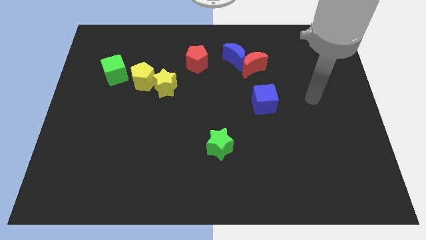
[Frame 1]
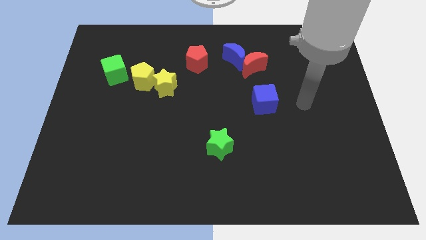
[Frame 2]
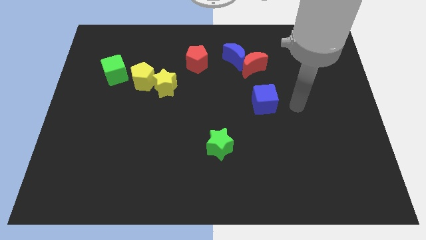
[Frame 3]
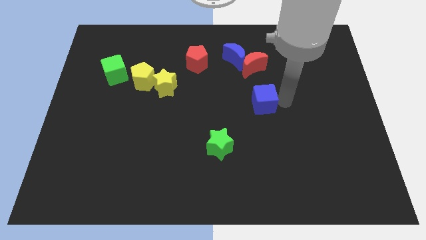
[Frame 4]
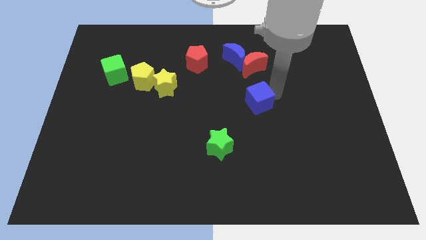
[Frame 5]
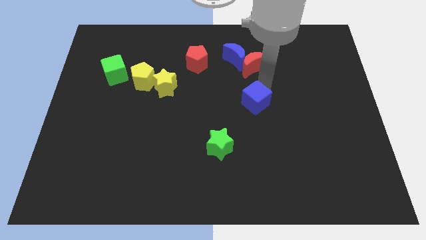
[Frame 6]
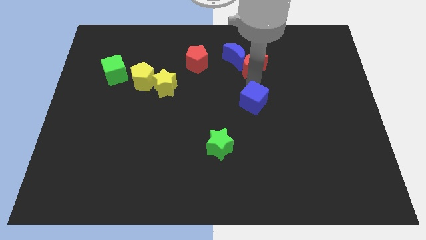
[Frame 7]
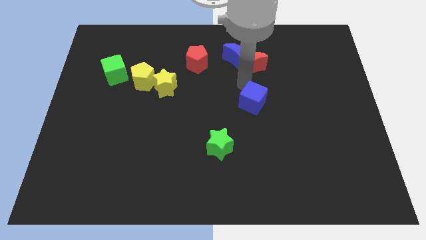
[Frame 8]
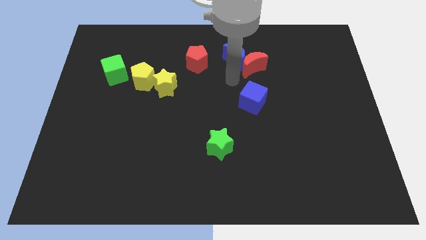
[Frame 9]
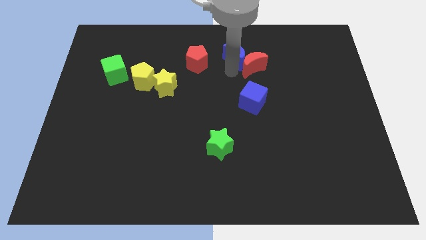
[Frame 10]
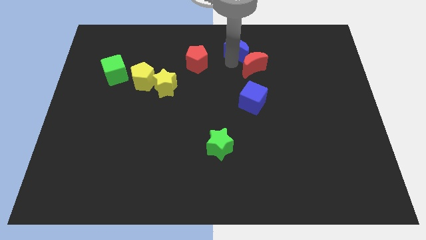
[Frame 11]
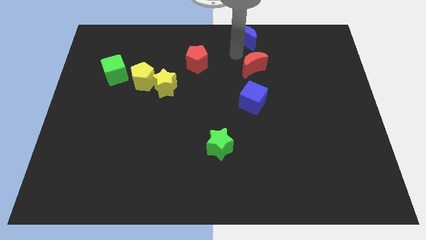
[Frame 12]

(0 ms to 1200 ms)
move the red moon away from the blue moon

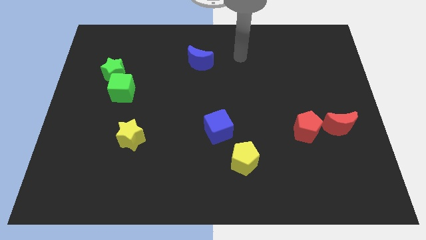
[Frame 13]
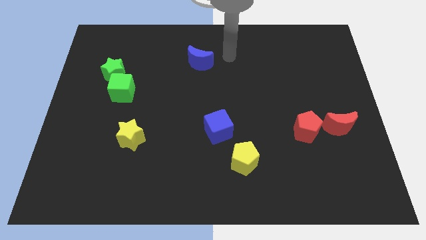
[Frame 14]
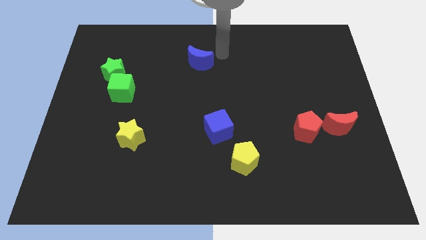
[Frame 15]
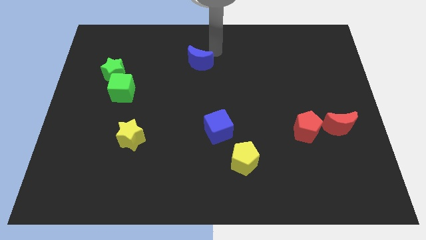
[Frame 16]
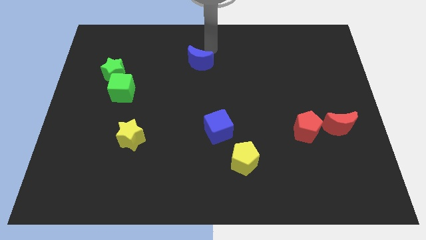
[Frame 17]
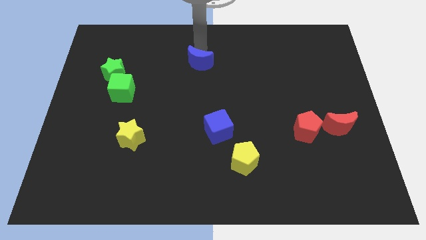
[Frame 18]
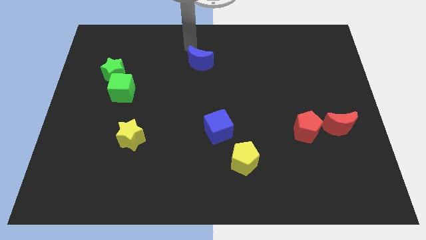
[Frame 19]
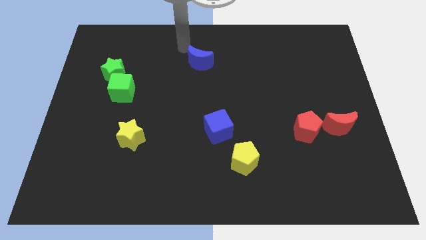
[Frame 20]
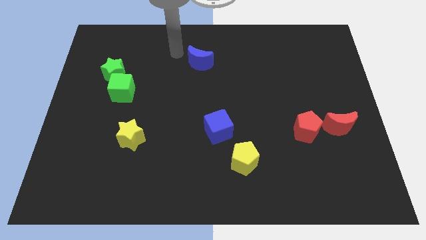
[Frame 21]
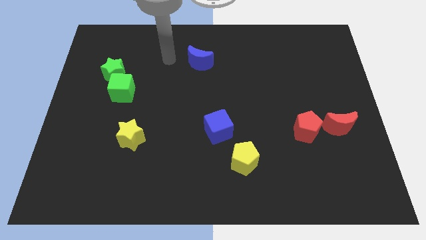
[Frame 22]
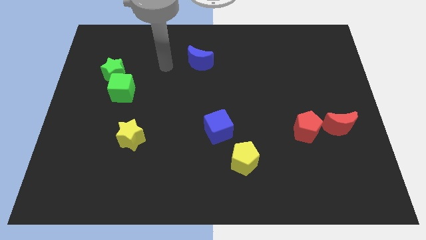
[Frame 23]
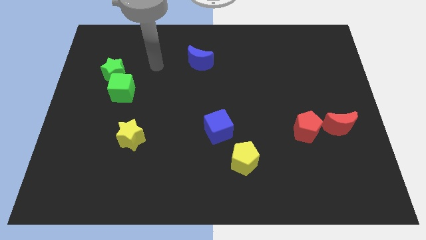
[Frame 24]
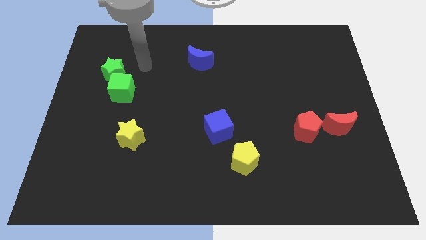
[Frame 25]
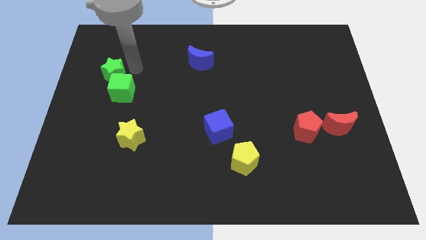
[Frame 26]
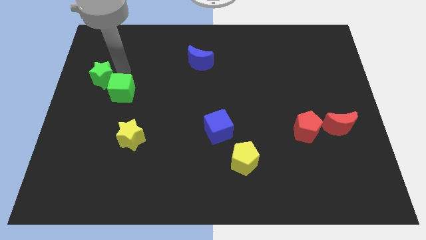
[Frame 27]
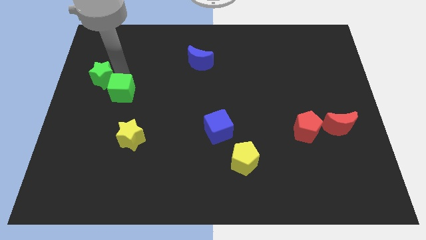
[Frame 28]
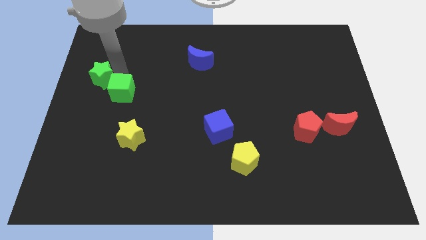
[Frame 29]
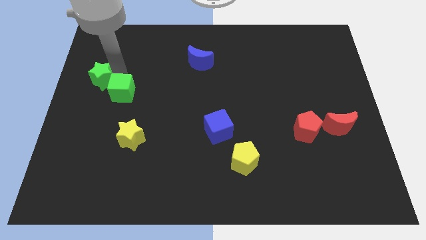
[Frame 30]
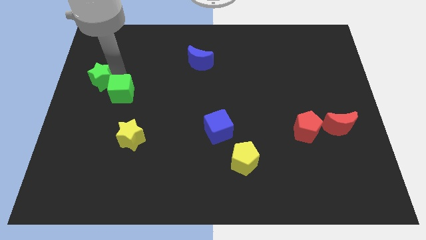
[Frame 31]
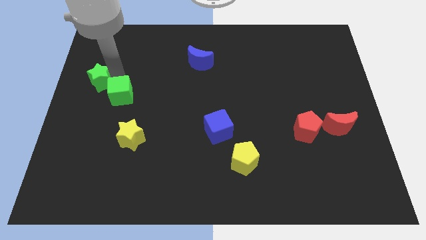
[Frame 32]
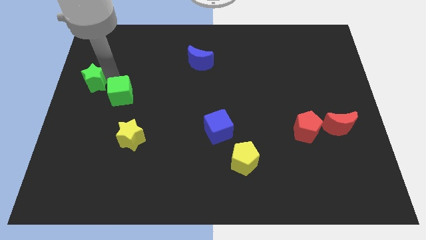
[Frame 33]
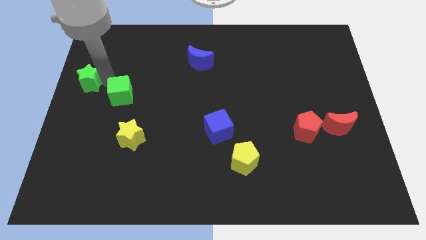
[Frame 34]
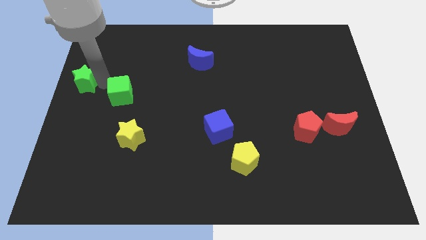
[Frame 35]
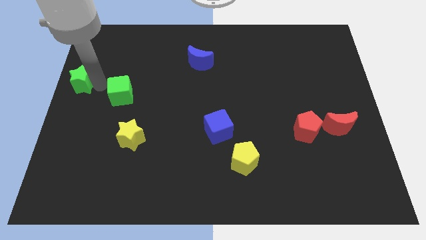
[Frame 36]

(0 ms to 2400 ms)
move the green cube away from the green star

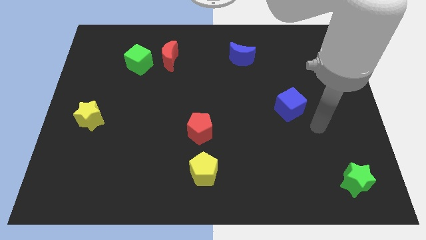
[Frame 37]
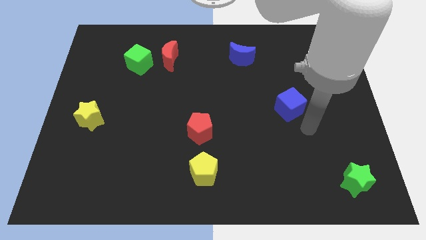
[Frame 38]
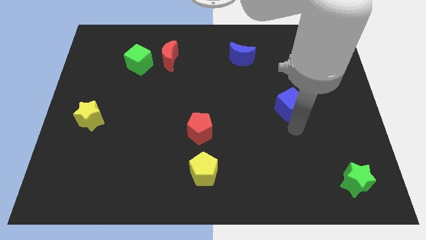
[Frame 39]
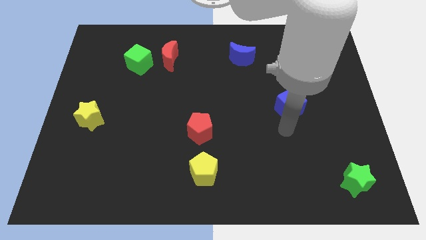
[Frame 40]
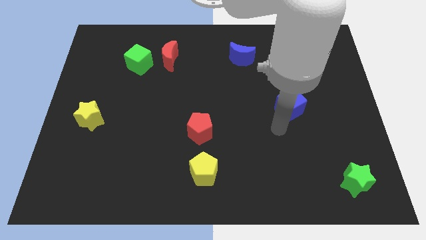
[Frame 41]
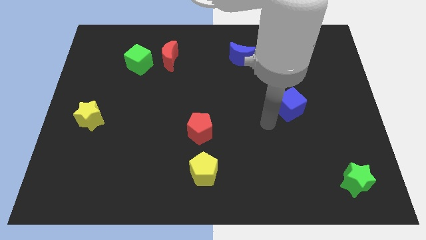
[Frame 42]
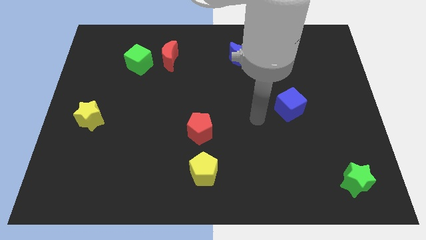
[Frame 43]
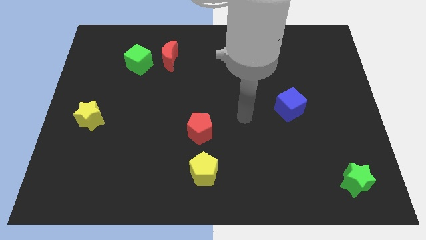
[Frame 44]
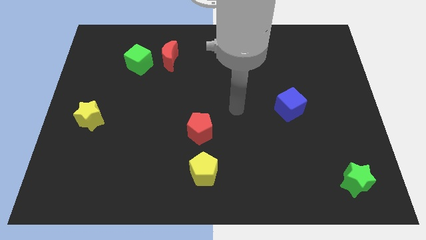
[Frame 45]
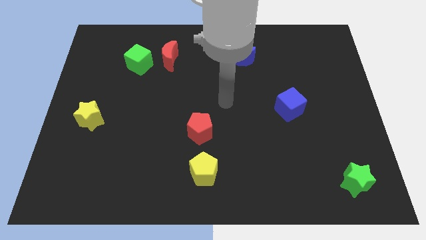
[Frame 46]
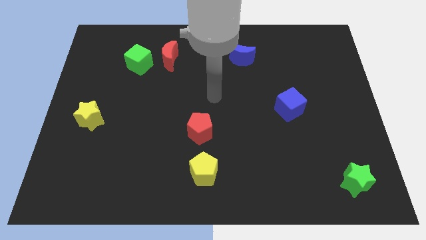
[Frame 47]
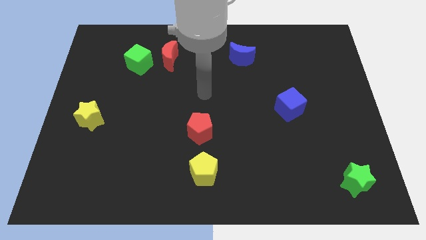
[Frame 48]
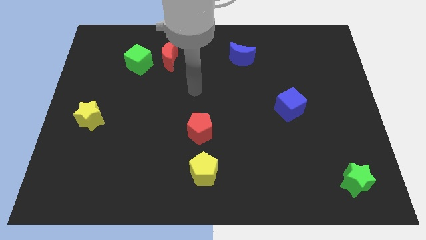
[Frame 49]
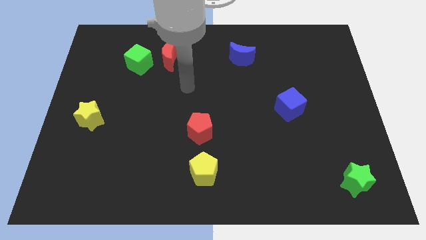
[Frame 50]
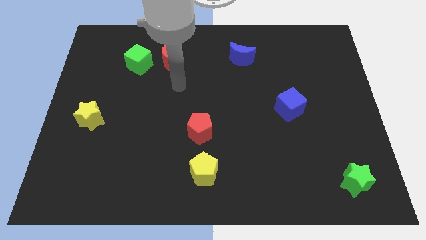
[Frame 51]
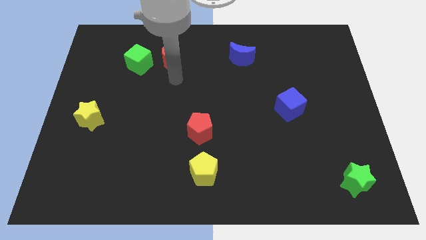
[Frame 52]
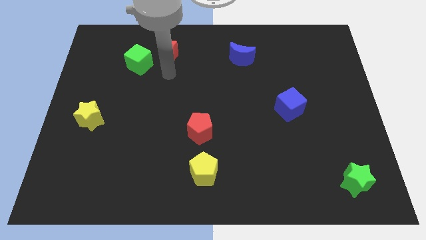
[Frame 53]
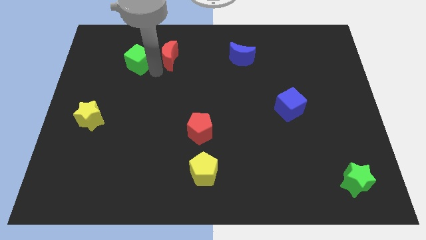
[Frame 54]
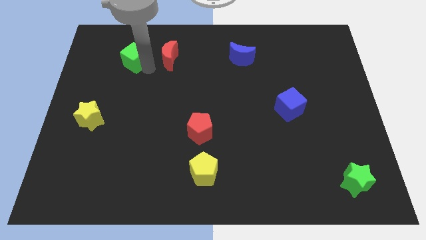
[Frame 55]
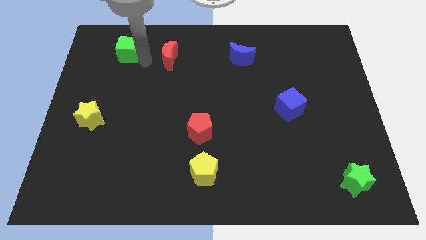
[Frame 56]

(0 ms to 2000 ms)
pull the red moon apart from the green cube

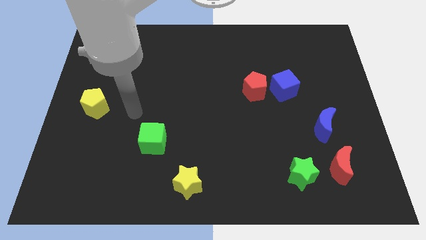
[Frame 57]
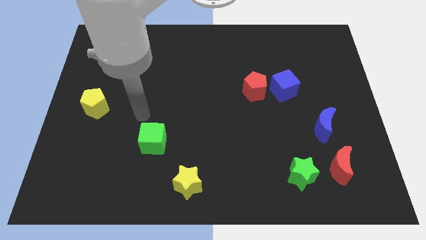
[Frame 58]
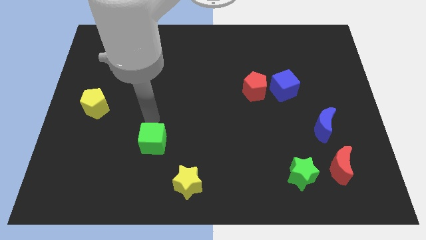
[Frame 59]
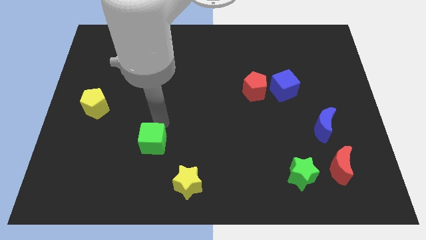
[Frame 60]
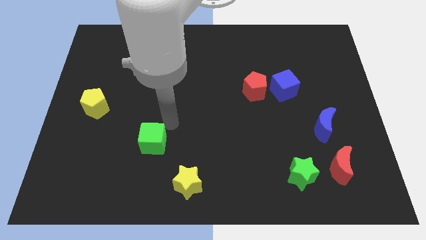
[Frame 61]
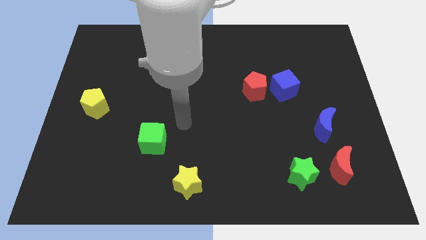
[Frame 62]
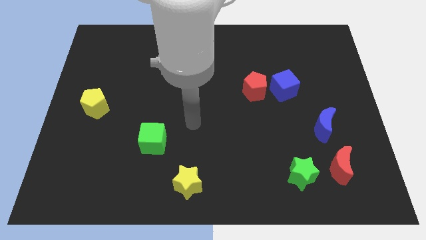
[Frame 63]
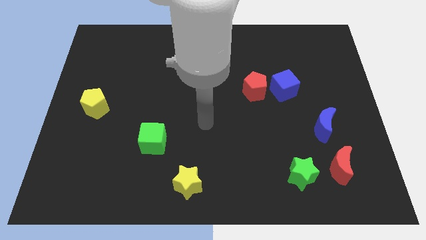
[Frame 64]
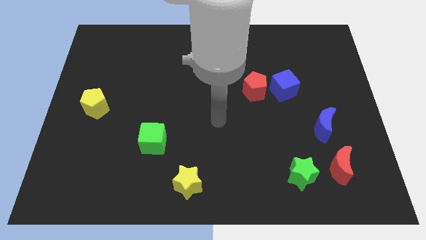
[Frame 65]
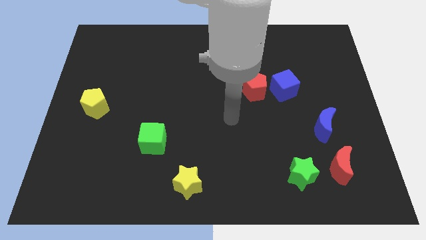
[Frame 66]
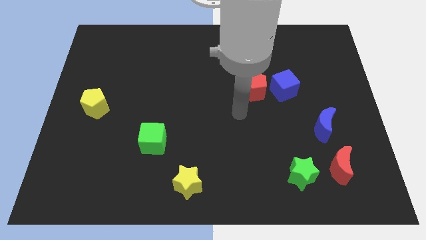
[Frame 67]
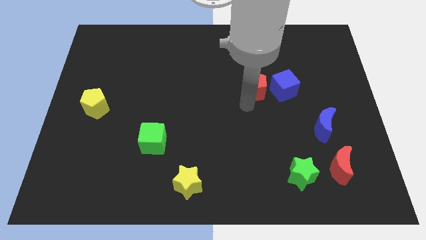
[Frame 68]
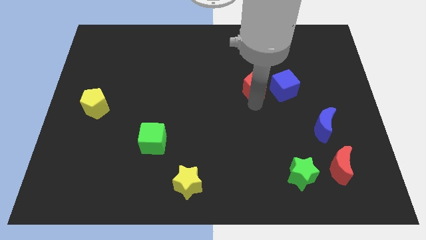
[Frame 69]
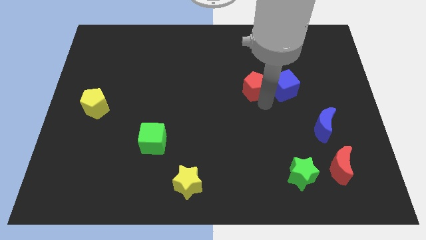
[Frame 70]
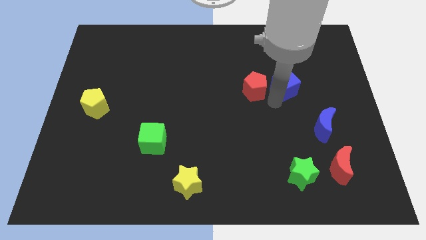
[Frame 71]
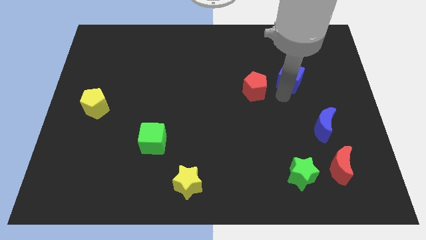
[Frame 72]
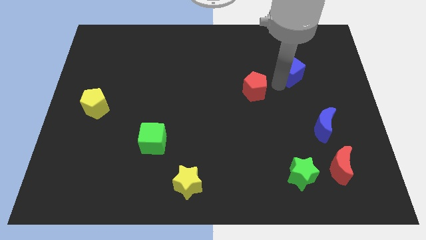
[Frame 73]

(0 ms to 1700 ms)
separate the red pentagon from the blue cube

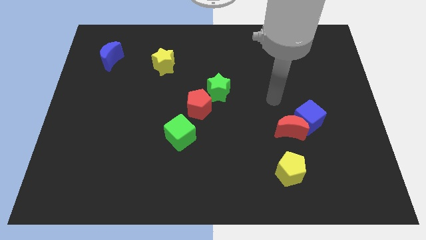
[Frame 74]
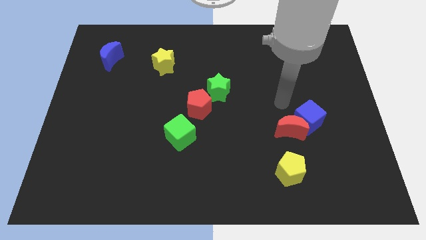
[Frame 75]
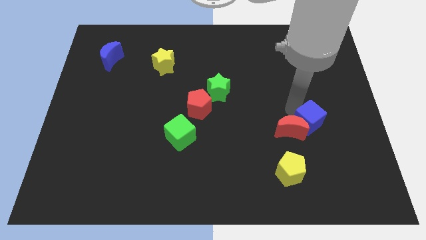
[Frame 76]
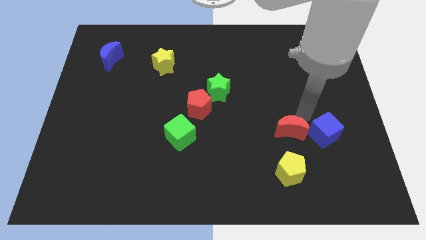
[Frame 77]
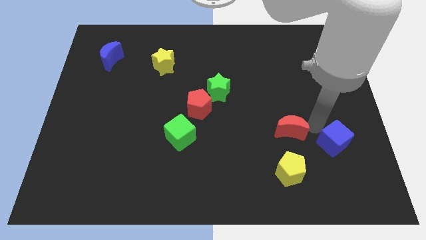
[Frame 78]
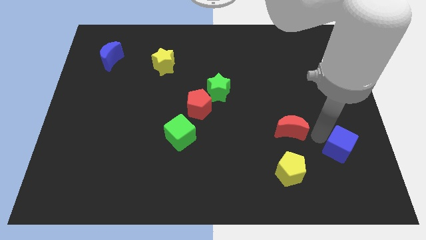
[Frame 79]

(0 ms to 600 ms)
move the red moon away from the blue cube

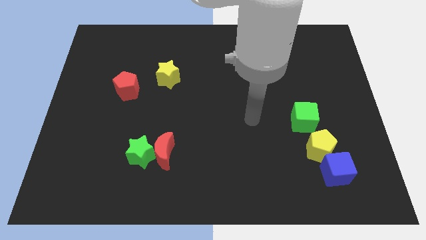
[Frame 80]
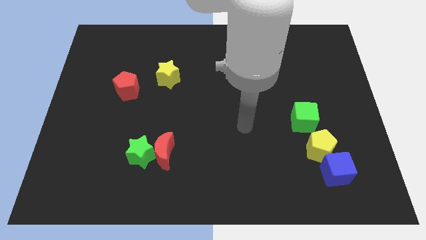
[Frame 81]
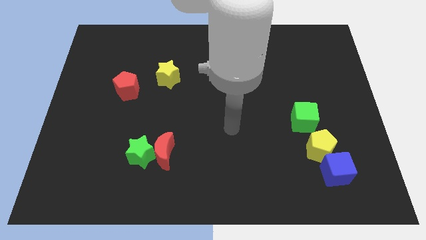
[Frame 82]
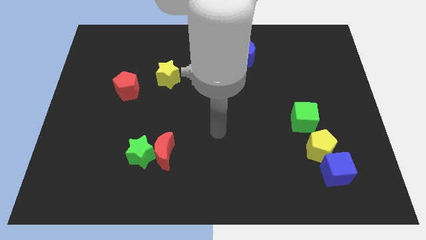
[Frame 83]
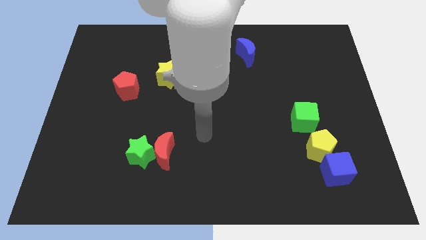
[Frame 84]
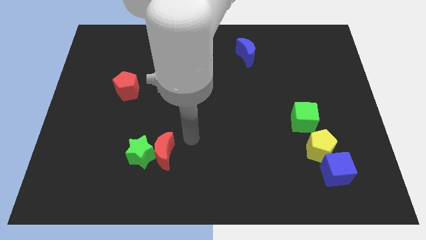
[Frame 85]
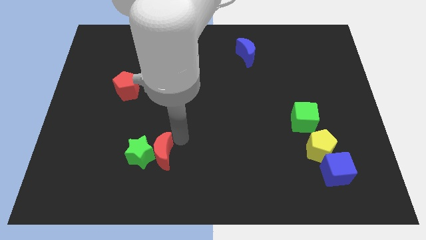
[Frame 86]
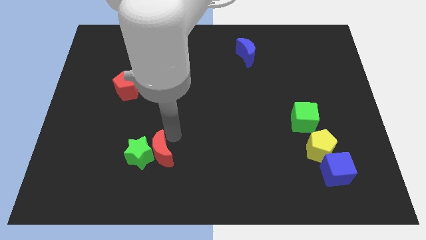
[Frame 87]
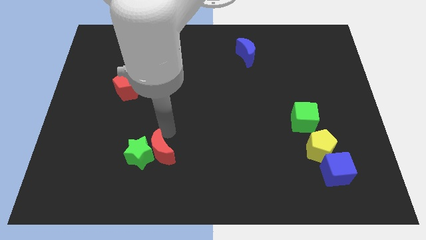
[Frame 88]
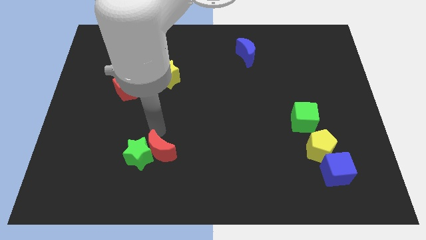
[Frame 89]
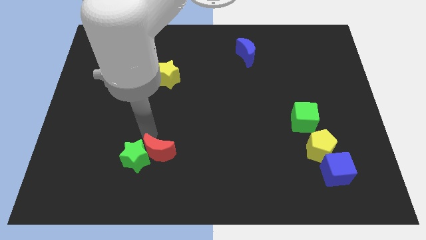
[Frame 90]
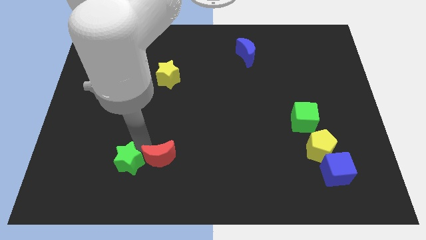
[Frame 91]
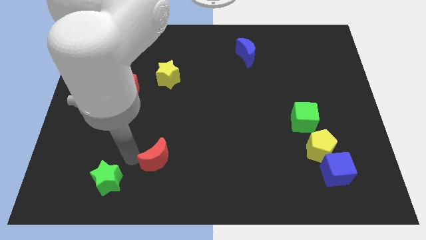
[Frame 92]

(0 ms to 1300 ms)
separate the red moon from the green star
